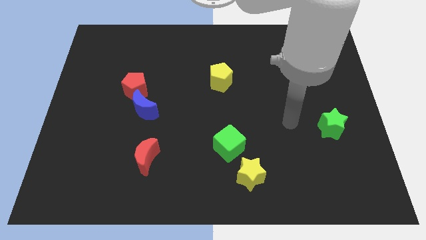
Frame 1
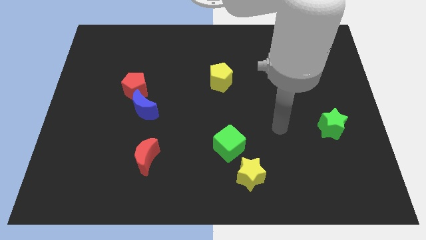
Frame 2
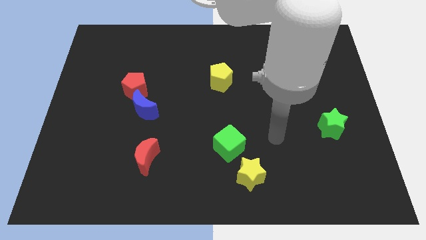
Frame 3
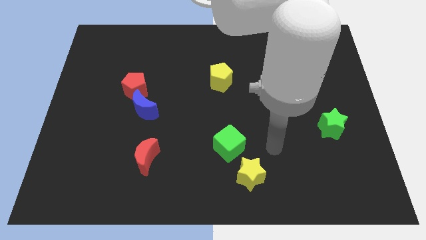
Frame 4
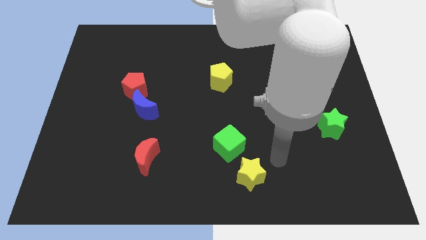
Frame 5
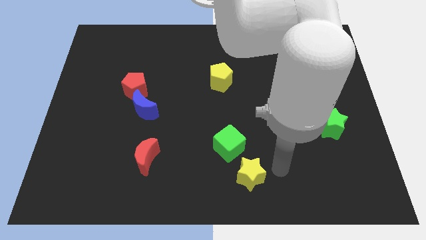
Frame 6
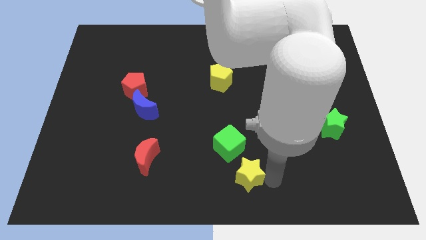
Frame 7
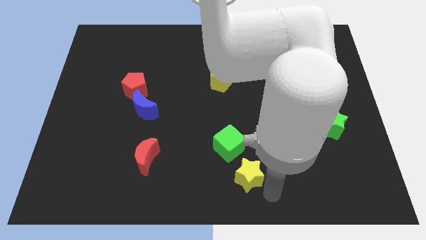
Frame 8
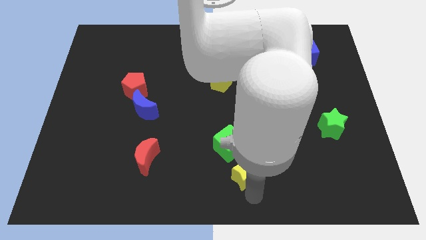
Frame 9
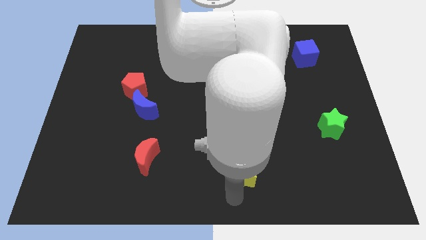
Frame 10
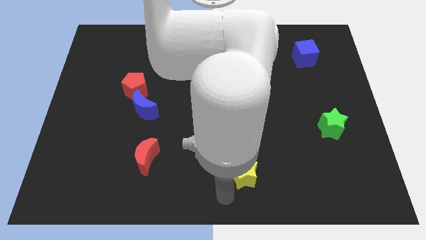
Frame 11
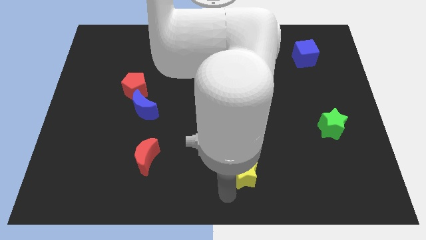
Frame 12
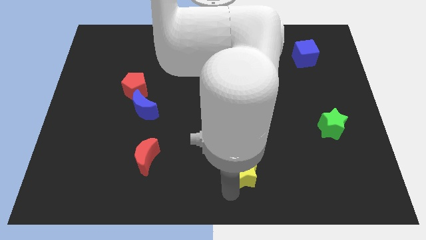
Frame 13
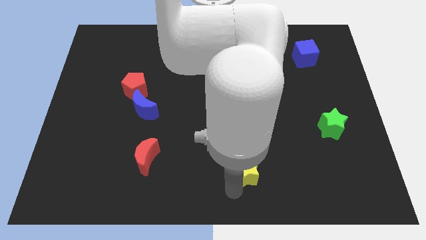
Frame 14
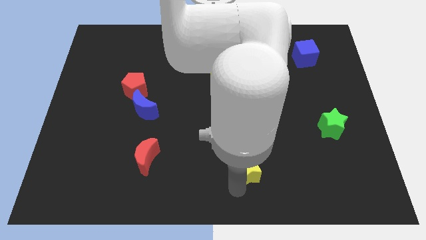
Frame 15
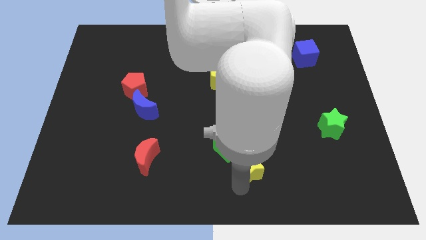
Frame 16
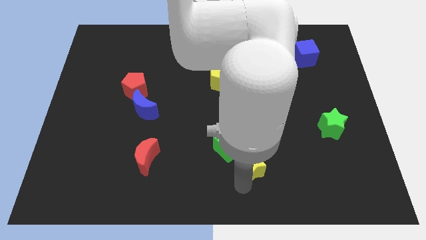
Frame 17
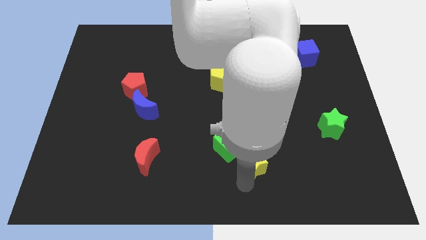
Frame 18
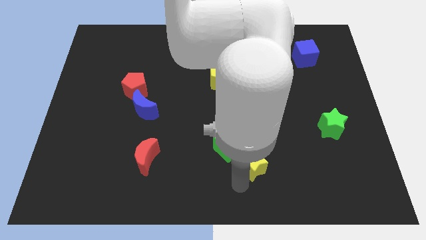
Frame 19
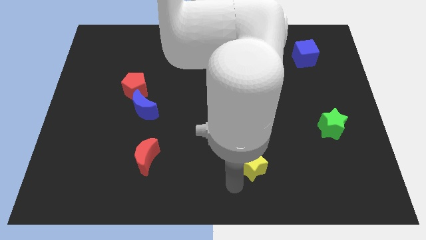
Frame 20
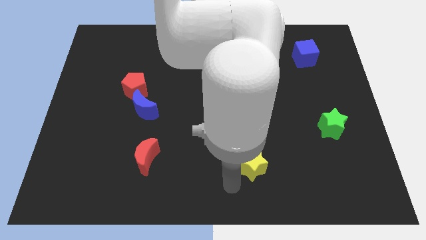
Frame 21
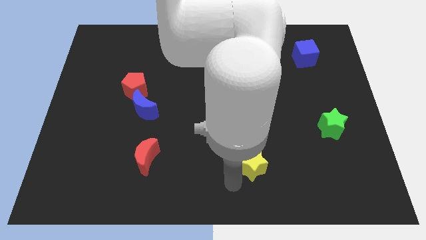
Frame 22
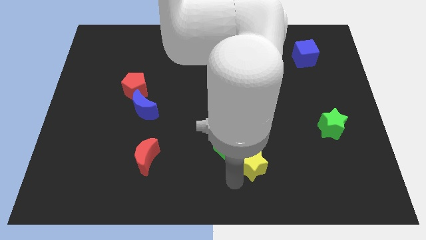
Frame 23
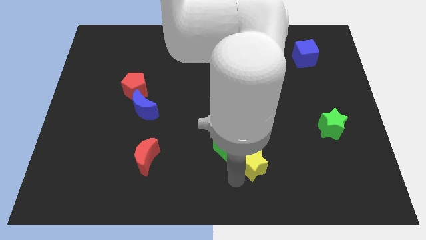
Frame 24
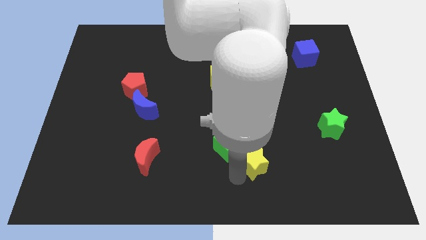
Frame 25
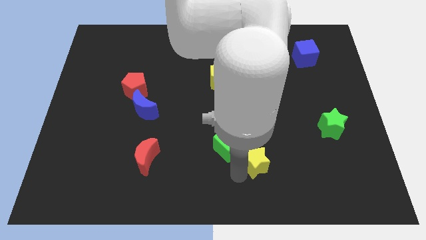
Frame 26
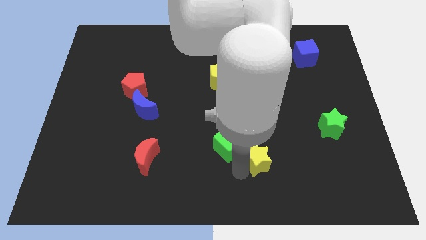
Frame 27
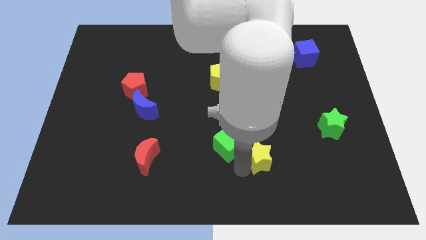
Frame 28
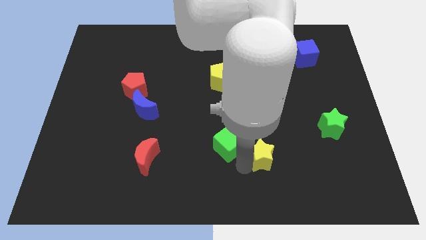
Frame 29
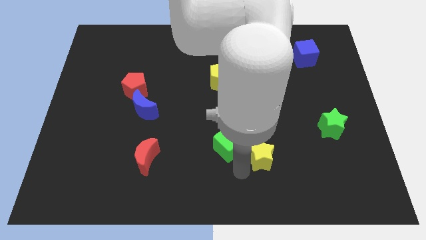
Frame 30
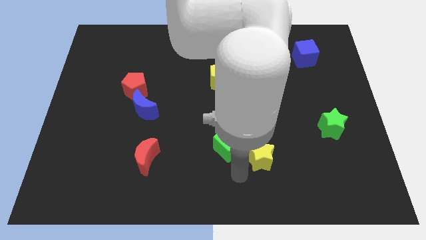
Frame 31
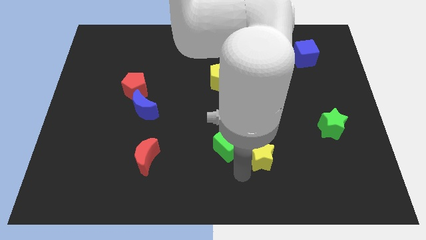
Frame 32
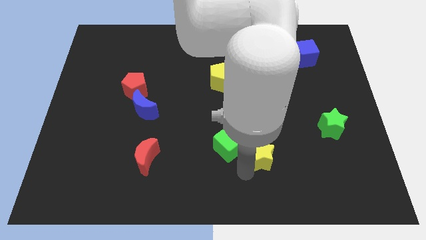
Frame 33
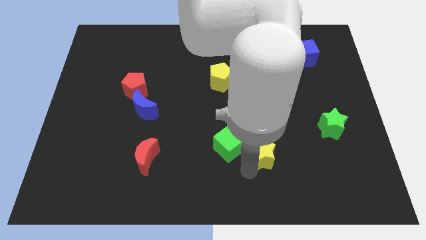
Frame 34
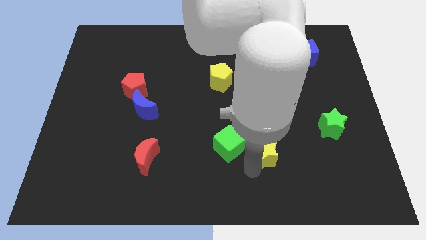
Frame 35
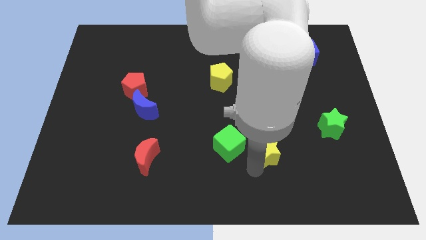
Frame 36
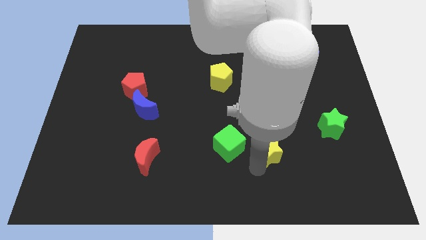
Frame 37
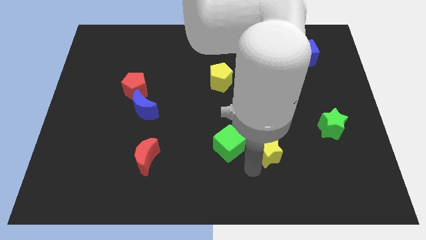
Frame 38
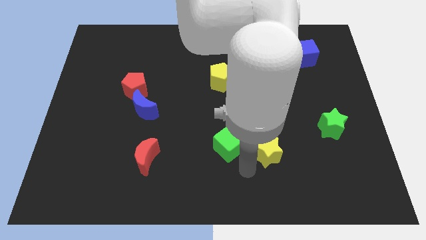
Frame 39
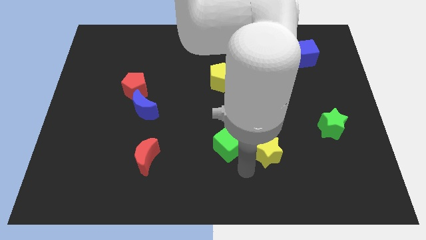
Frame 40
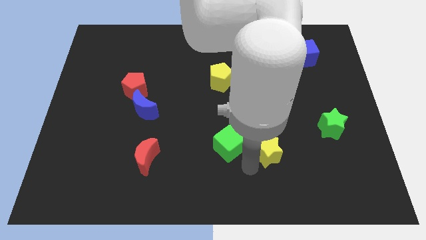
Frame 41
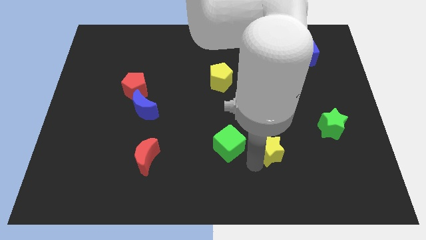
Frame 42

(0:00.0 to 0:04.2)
slide the yellow star upwards and right a little bit

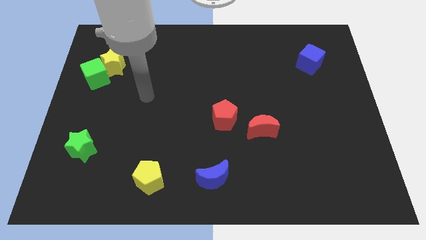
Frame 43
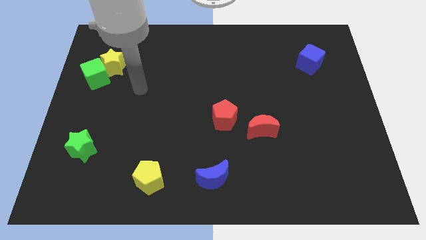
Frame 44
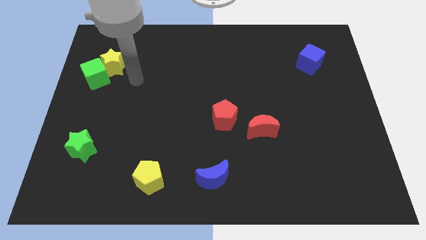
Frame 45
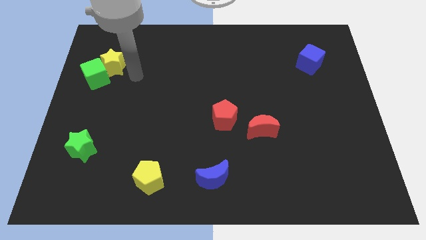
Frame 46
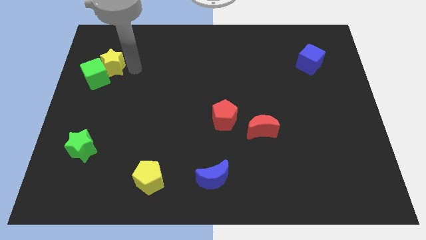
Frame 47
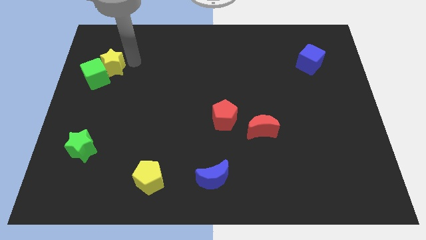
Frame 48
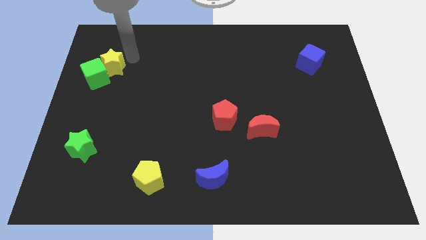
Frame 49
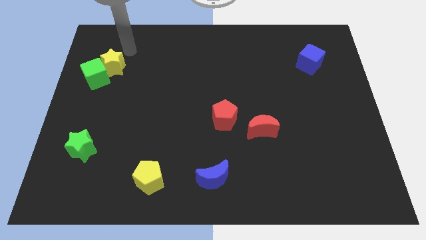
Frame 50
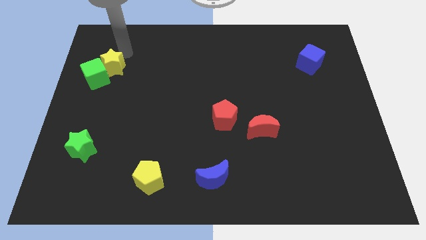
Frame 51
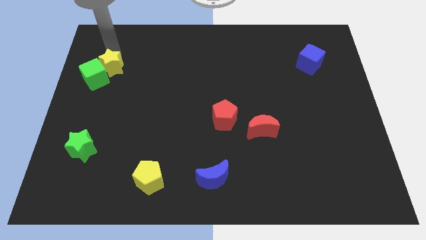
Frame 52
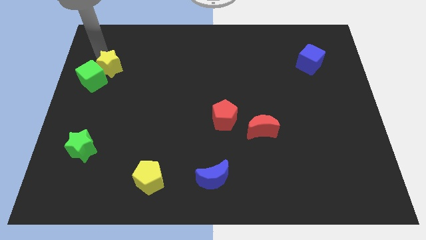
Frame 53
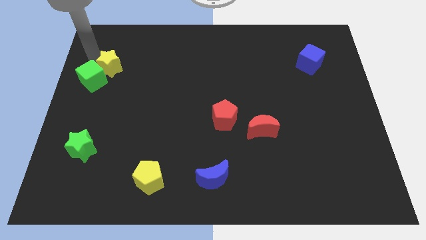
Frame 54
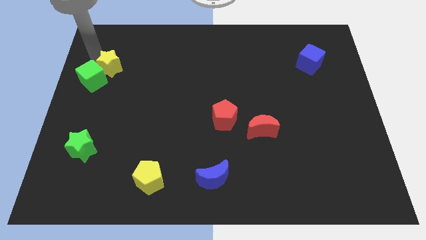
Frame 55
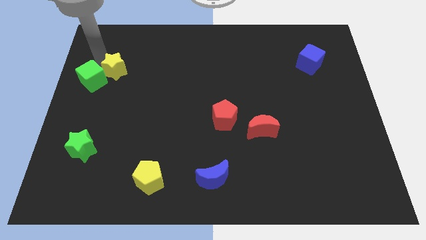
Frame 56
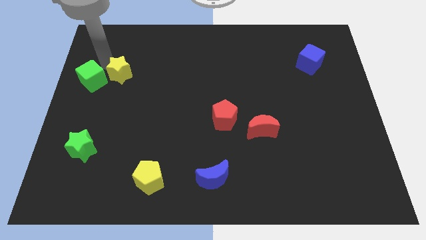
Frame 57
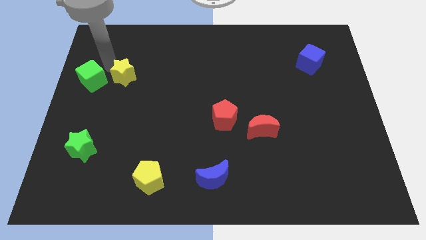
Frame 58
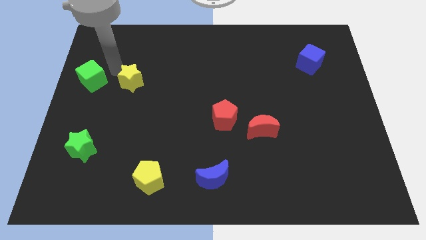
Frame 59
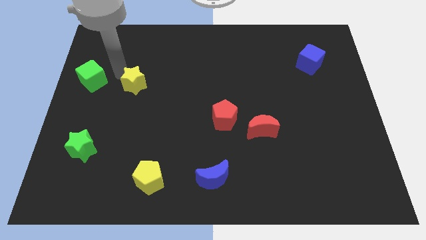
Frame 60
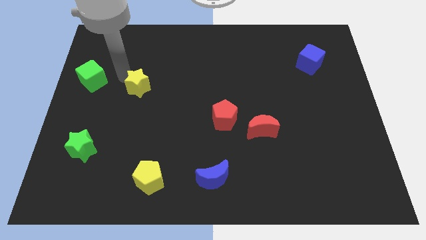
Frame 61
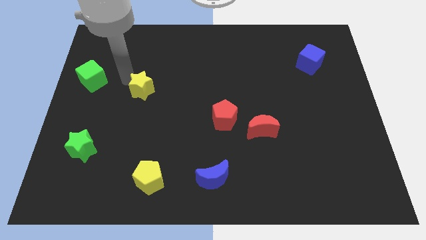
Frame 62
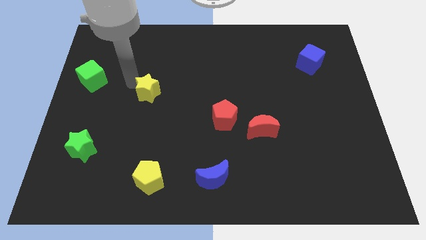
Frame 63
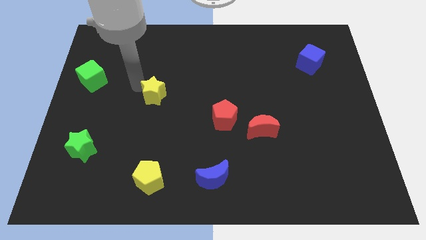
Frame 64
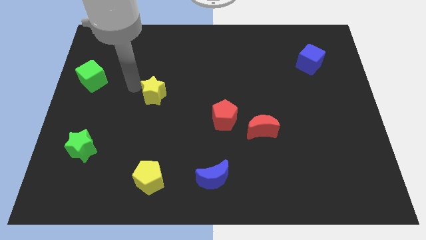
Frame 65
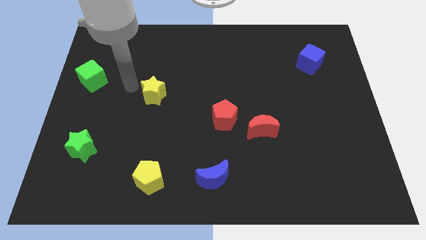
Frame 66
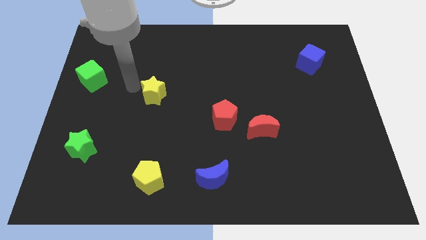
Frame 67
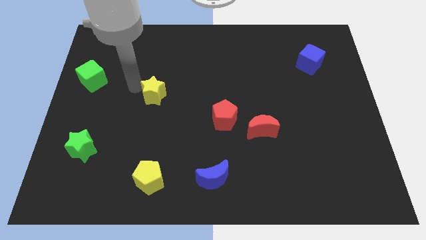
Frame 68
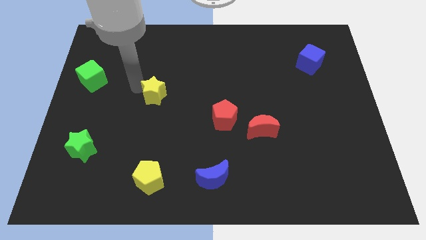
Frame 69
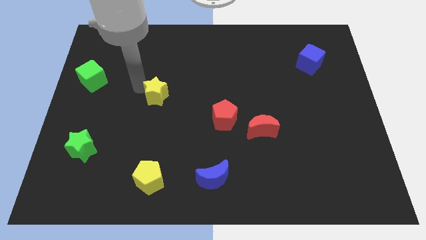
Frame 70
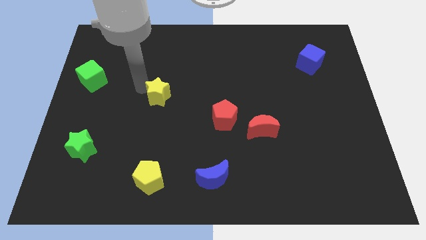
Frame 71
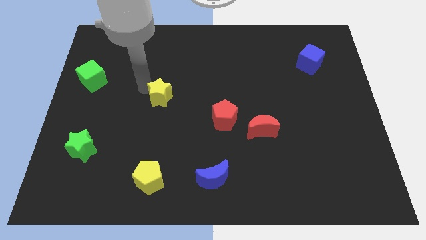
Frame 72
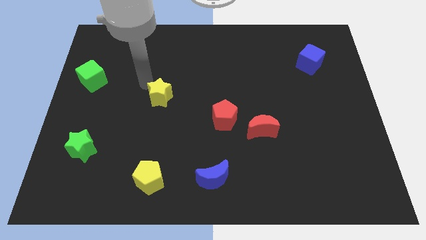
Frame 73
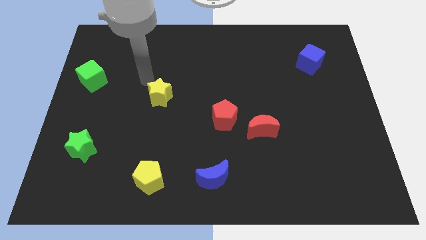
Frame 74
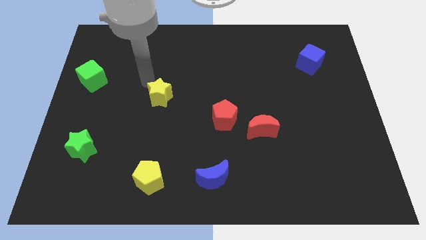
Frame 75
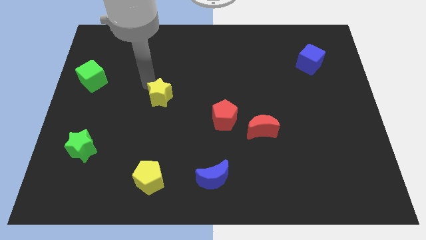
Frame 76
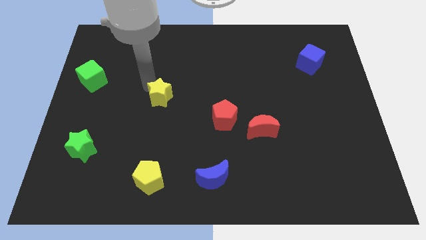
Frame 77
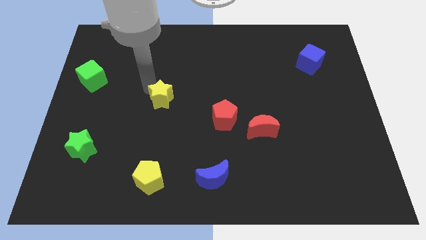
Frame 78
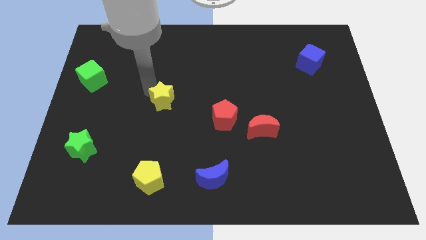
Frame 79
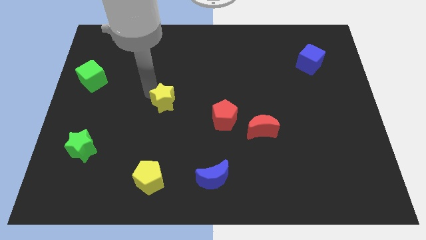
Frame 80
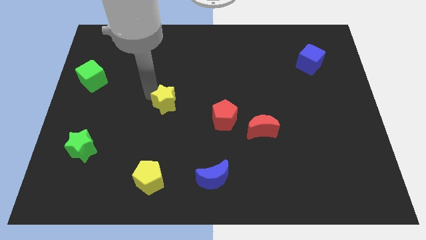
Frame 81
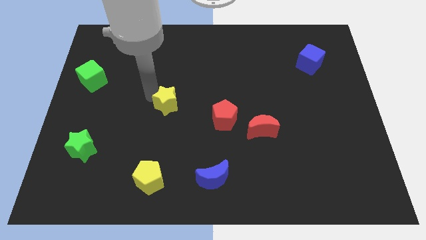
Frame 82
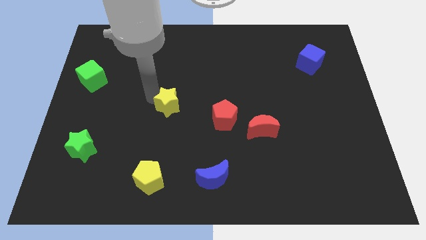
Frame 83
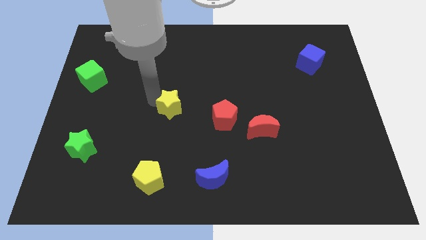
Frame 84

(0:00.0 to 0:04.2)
push the yellow star diagonally downwards and right
